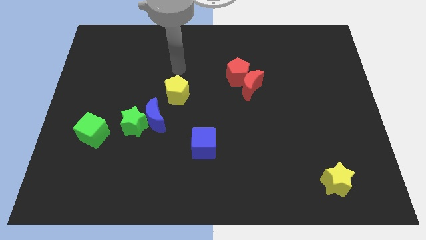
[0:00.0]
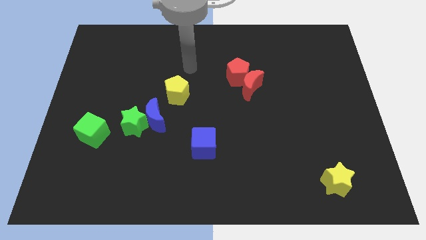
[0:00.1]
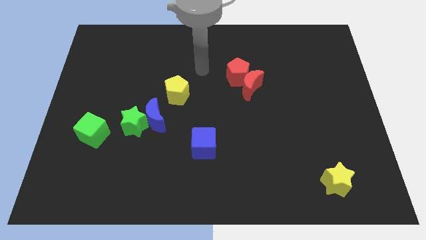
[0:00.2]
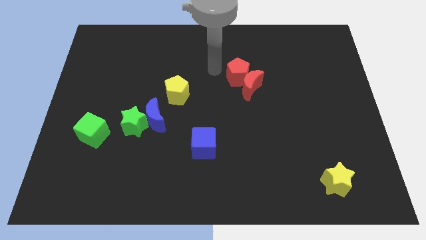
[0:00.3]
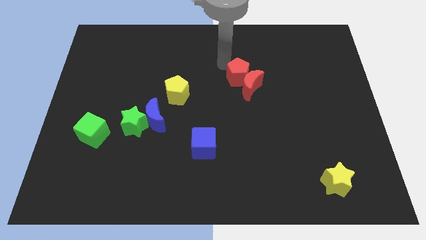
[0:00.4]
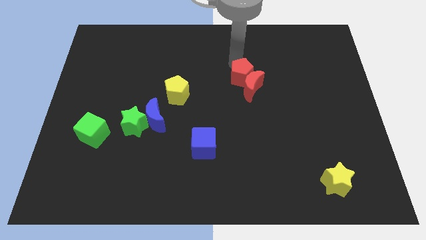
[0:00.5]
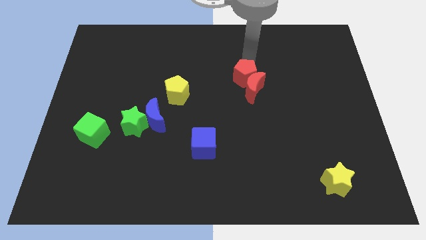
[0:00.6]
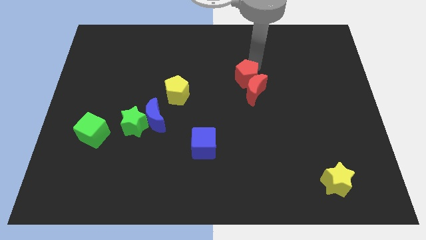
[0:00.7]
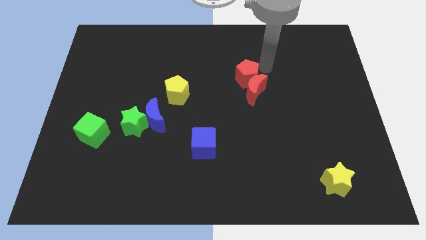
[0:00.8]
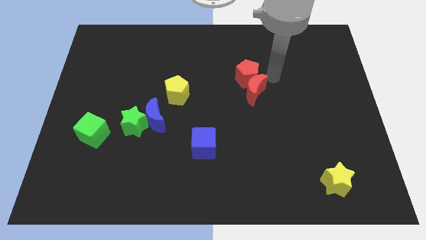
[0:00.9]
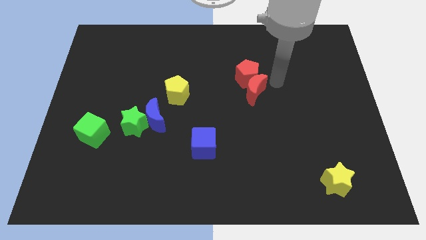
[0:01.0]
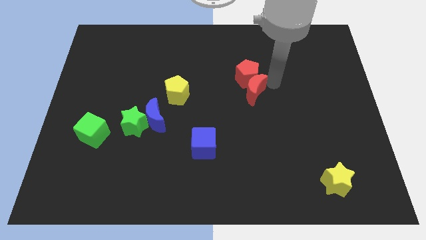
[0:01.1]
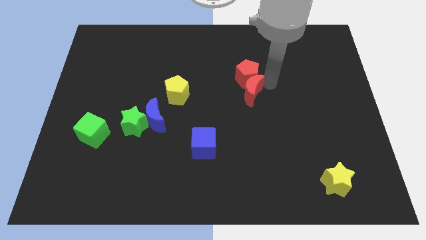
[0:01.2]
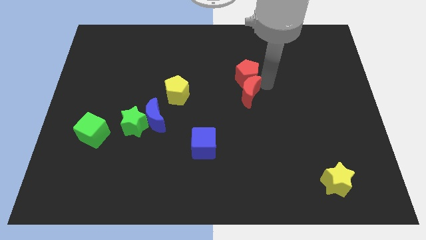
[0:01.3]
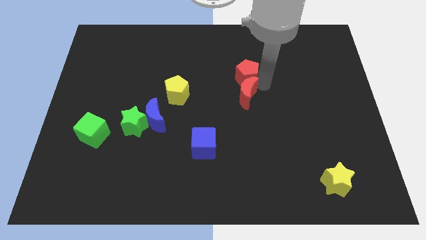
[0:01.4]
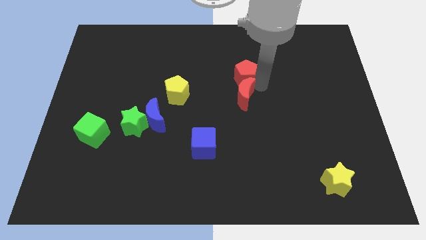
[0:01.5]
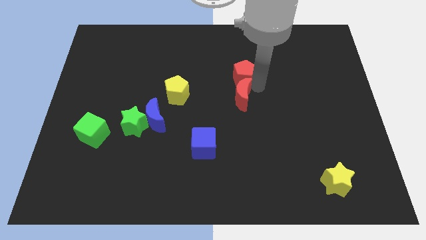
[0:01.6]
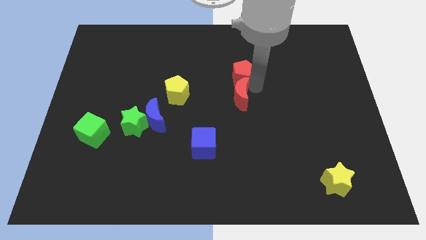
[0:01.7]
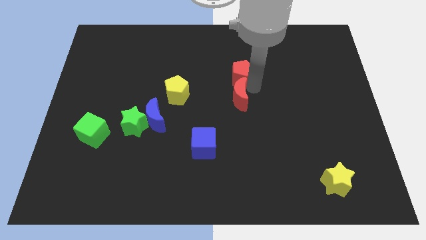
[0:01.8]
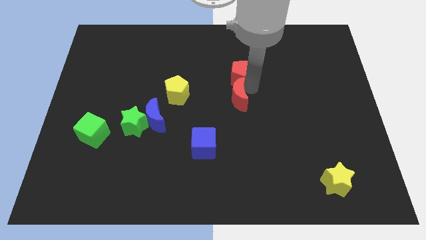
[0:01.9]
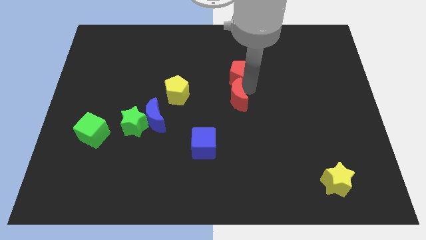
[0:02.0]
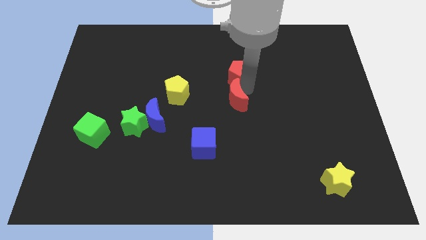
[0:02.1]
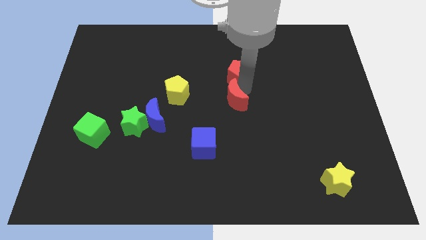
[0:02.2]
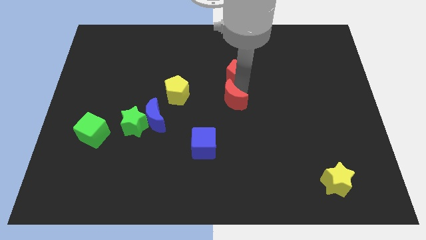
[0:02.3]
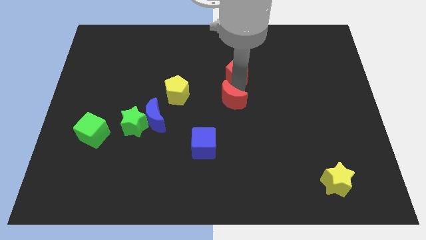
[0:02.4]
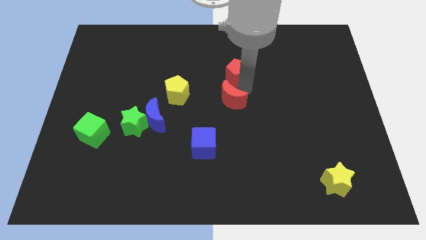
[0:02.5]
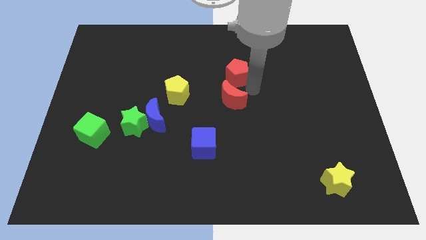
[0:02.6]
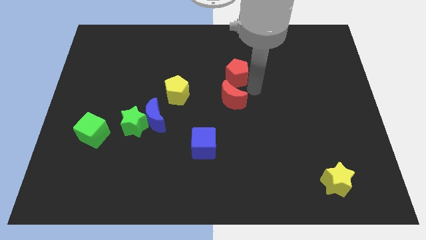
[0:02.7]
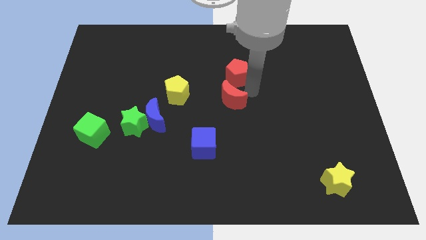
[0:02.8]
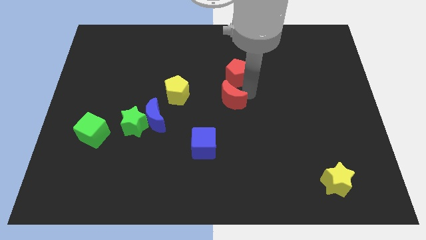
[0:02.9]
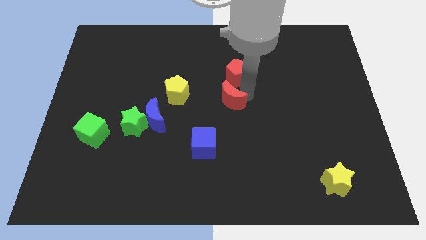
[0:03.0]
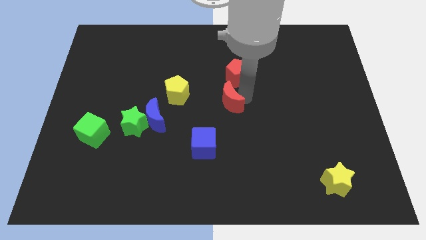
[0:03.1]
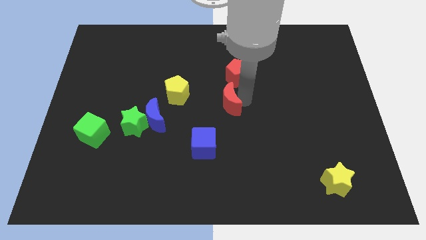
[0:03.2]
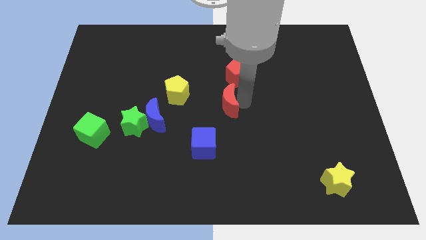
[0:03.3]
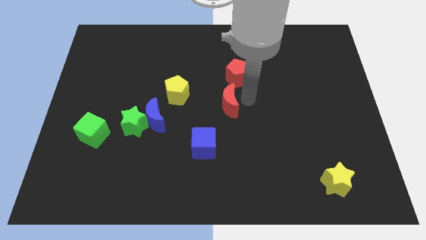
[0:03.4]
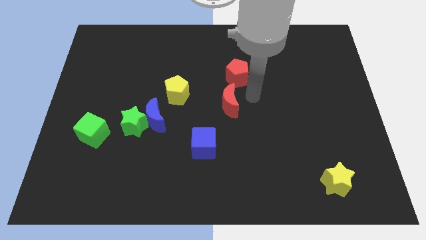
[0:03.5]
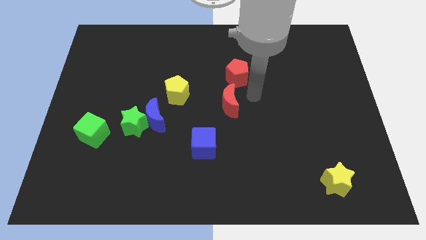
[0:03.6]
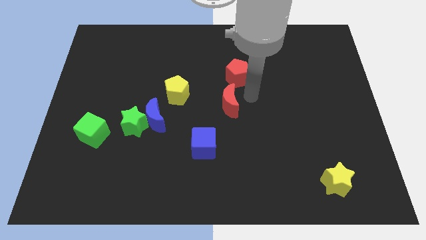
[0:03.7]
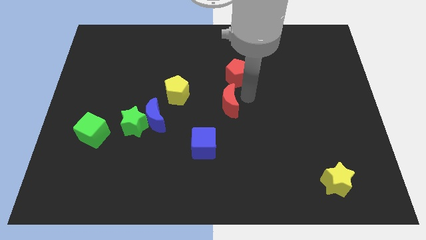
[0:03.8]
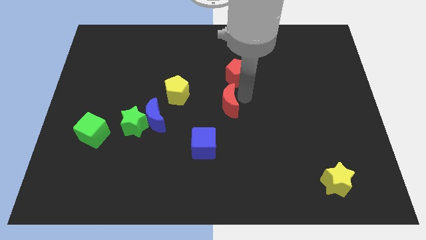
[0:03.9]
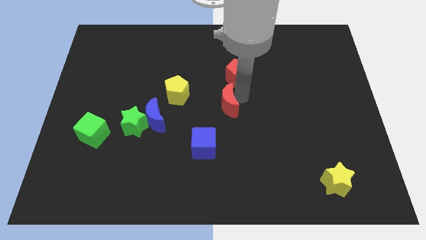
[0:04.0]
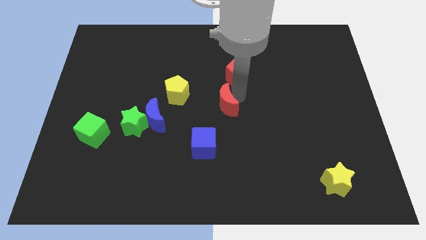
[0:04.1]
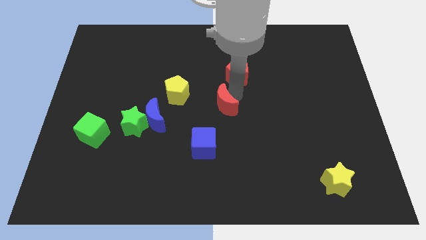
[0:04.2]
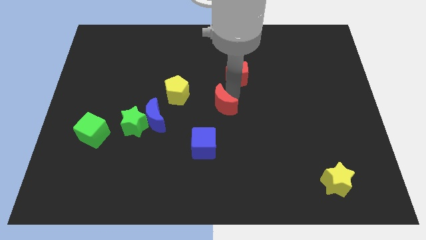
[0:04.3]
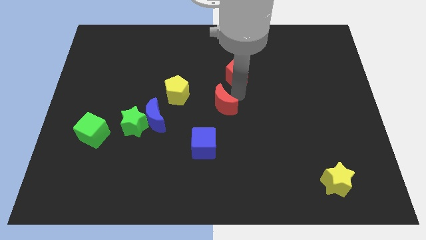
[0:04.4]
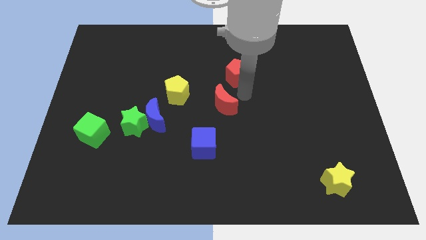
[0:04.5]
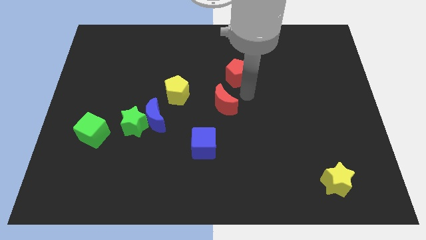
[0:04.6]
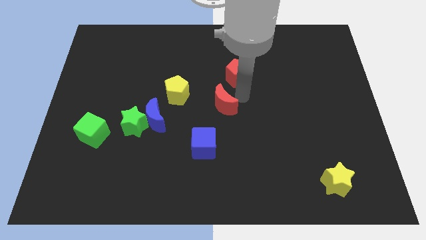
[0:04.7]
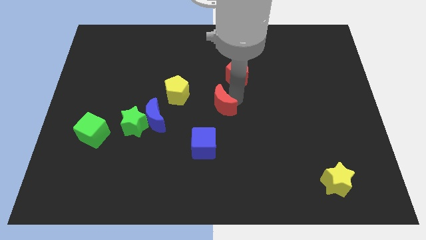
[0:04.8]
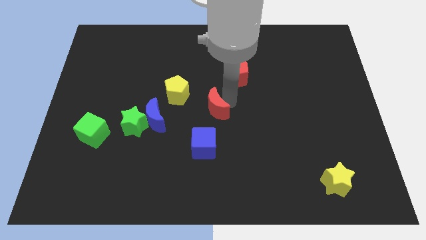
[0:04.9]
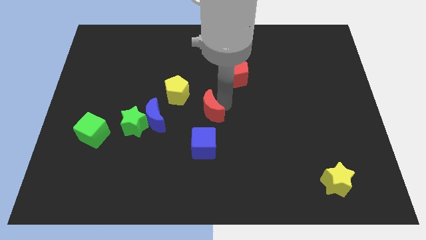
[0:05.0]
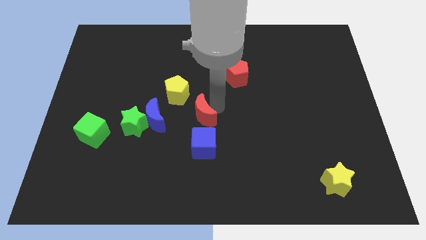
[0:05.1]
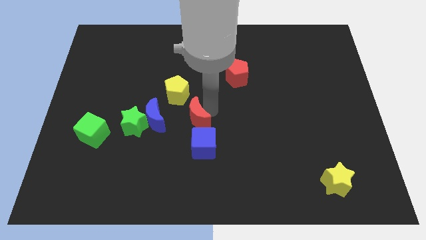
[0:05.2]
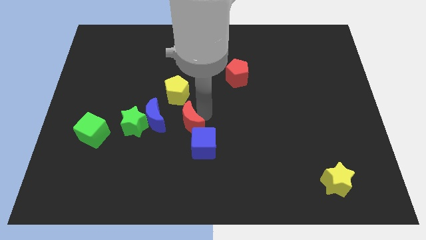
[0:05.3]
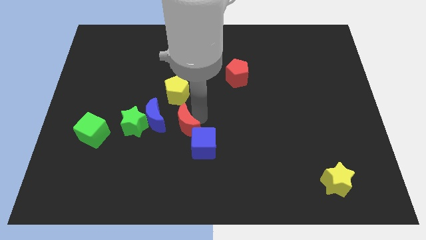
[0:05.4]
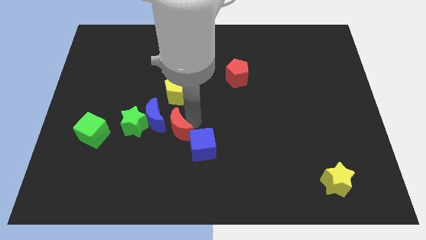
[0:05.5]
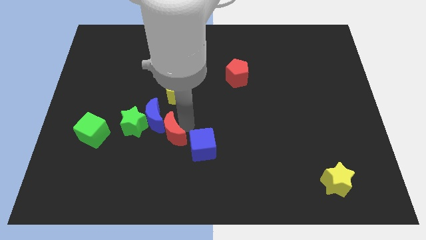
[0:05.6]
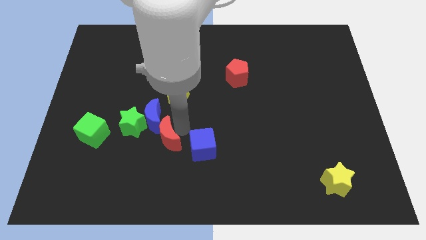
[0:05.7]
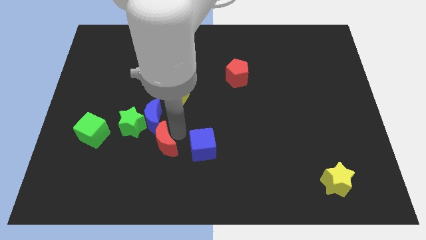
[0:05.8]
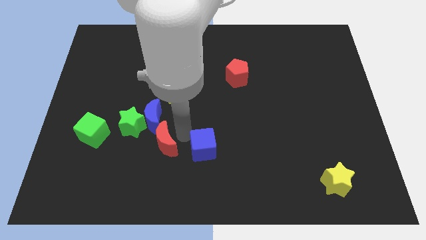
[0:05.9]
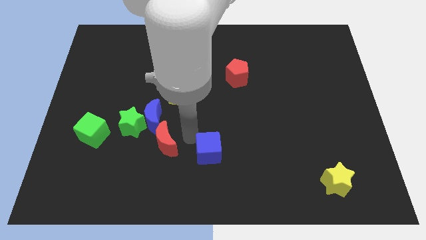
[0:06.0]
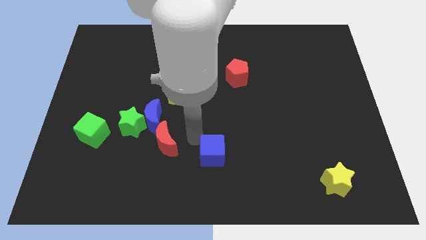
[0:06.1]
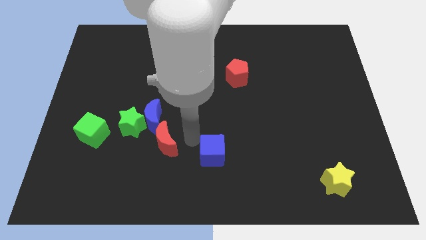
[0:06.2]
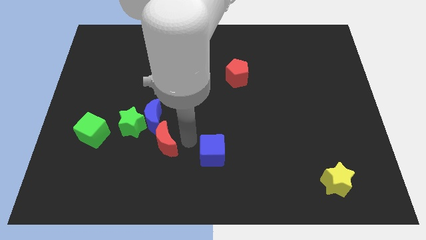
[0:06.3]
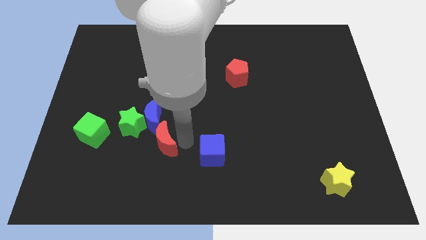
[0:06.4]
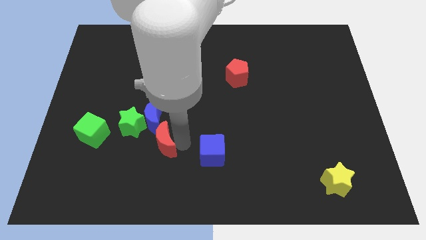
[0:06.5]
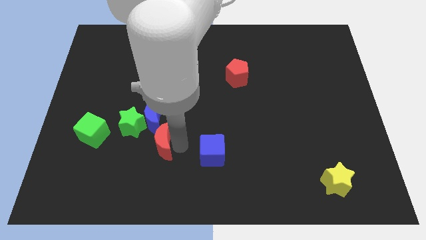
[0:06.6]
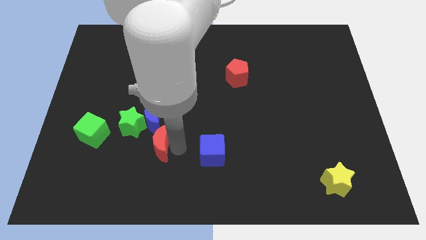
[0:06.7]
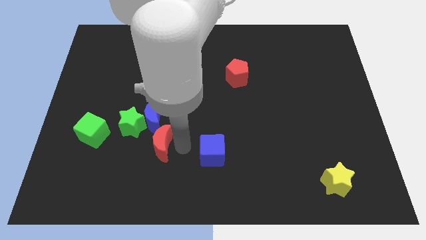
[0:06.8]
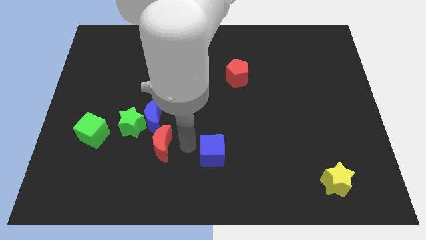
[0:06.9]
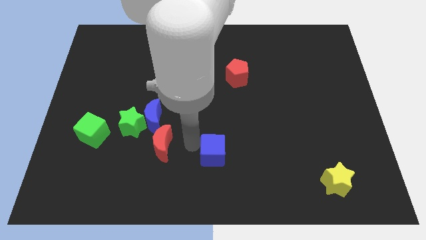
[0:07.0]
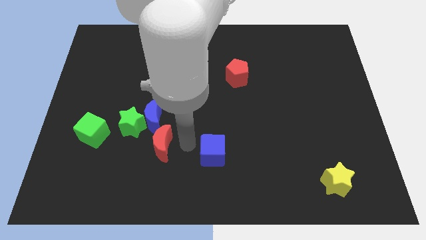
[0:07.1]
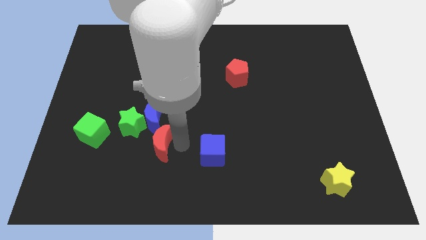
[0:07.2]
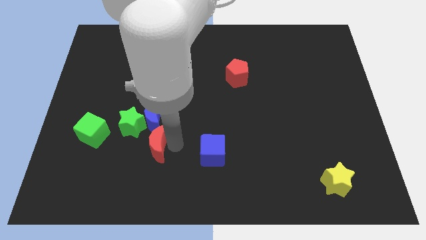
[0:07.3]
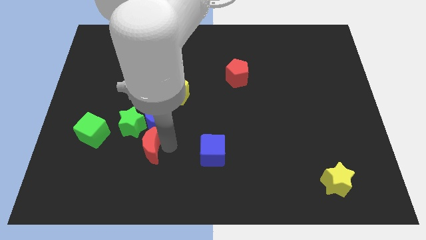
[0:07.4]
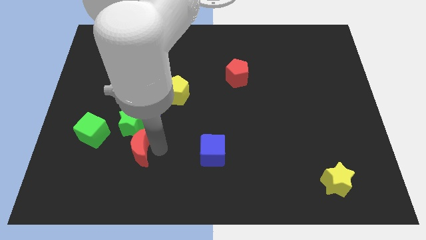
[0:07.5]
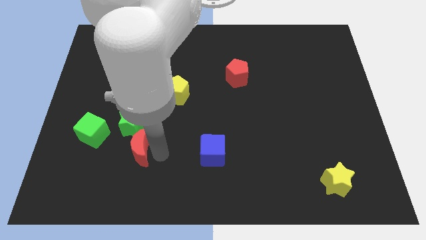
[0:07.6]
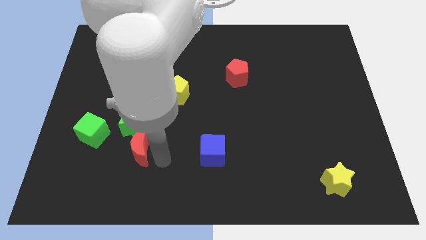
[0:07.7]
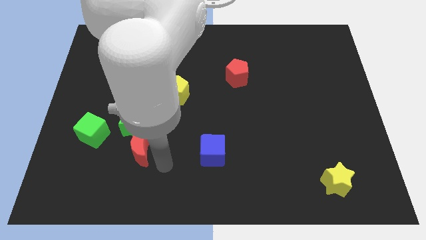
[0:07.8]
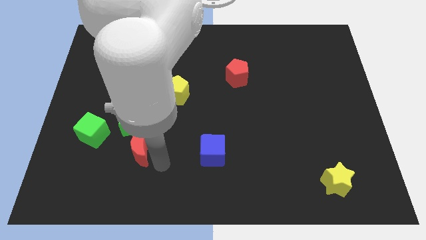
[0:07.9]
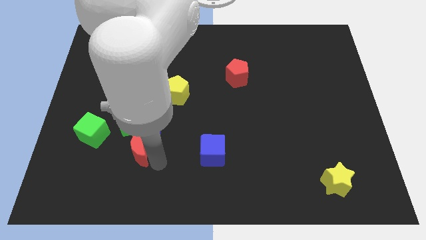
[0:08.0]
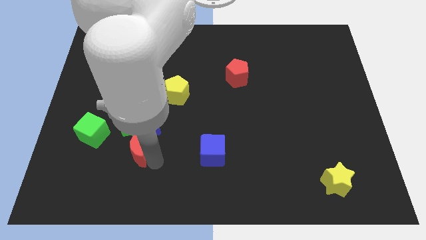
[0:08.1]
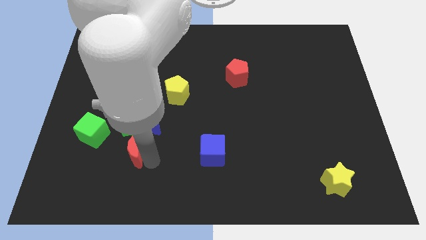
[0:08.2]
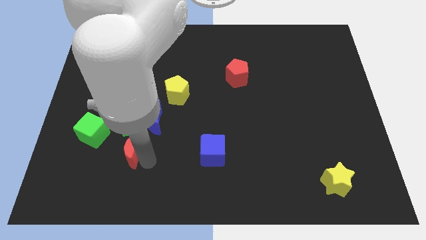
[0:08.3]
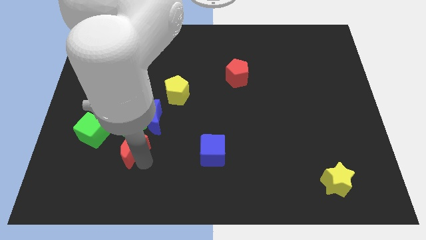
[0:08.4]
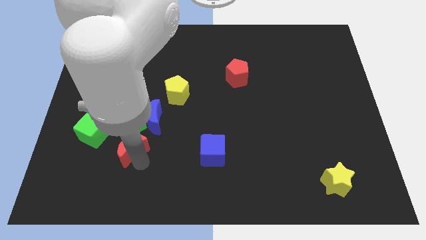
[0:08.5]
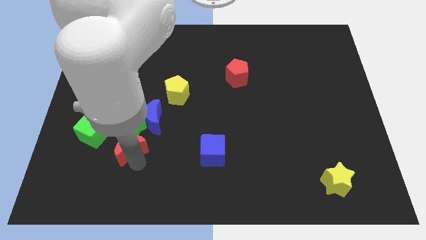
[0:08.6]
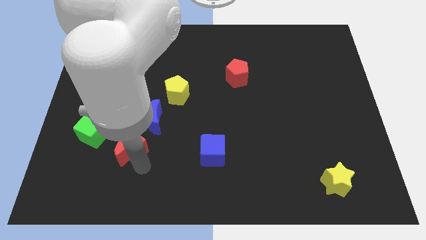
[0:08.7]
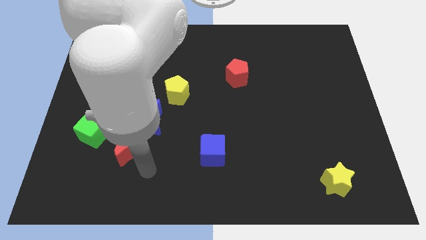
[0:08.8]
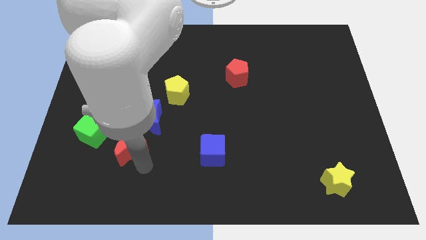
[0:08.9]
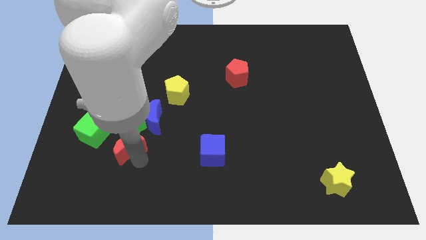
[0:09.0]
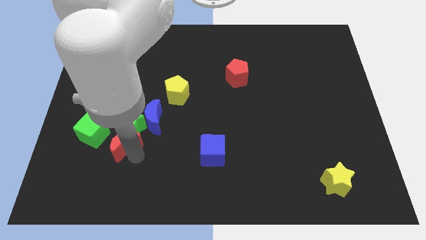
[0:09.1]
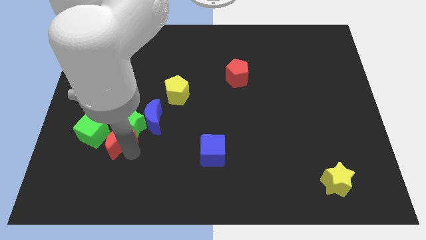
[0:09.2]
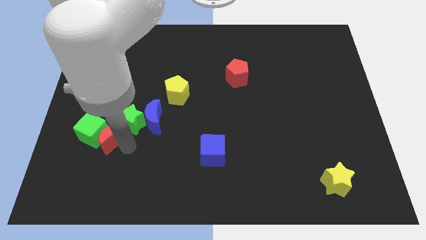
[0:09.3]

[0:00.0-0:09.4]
put the red moon close to the green cube
